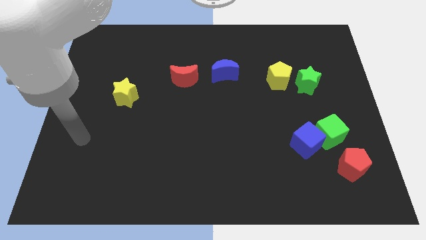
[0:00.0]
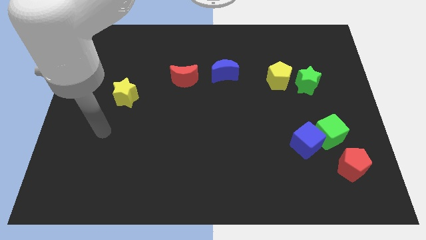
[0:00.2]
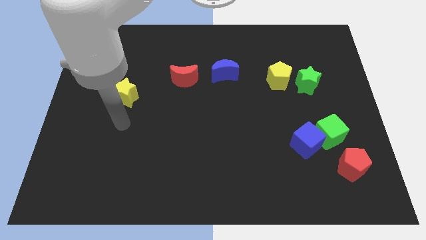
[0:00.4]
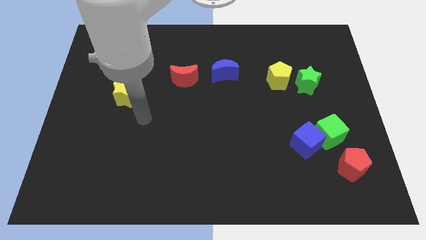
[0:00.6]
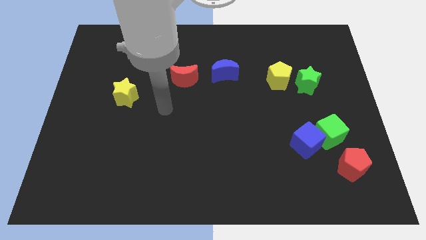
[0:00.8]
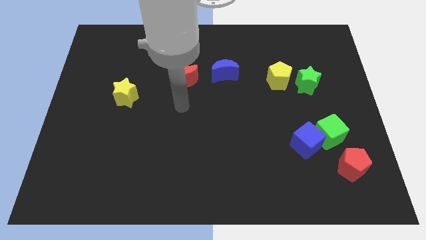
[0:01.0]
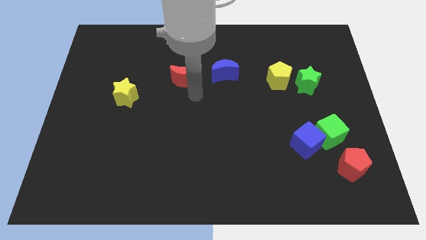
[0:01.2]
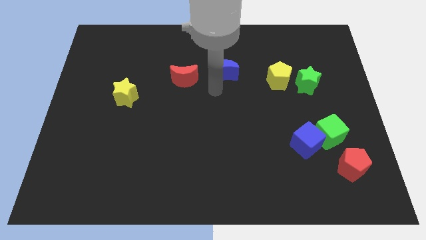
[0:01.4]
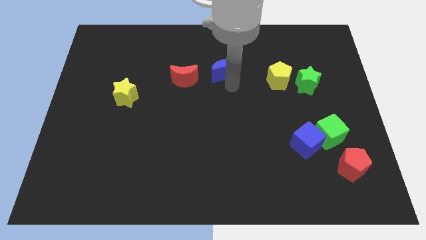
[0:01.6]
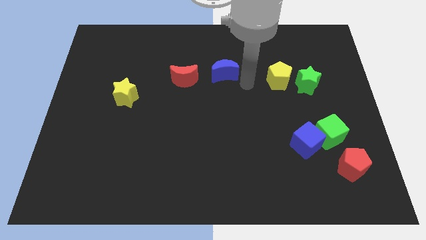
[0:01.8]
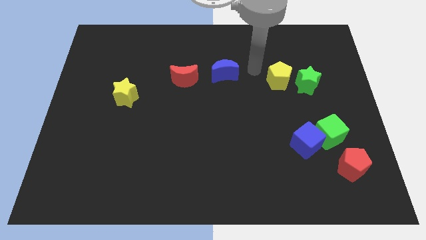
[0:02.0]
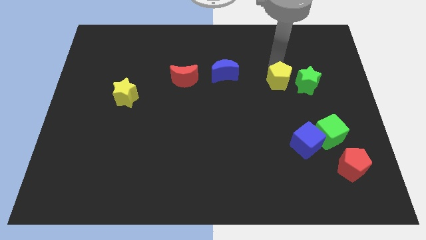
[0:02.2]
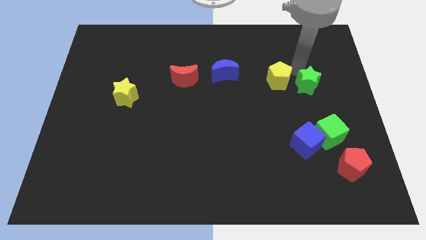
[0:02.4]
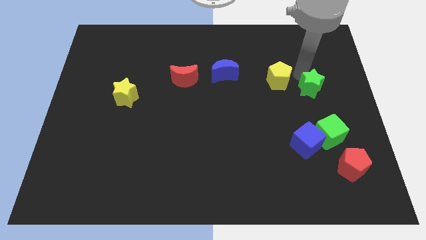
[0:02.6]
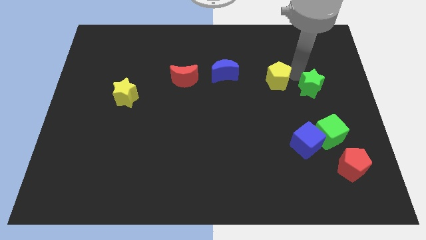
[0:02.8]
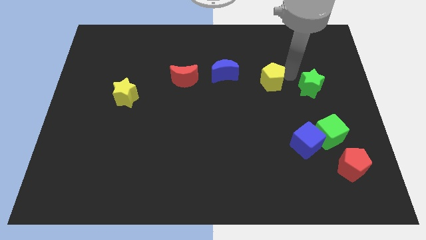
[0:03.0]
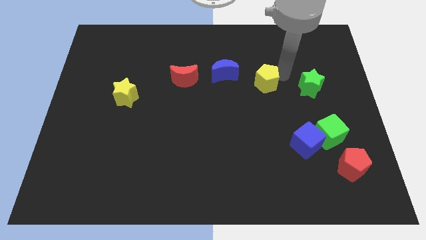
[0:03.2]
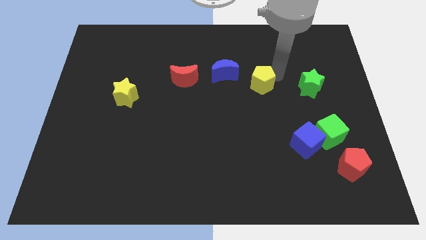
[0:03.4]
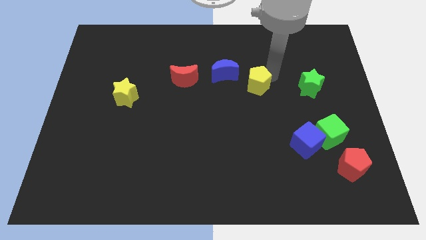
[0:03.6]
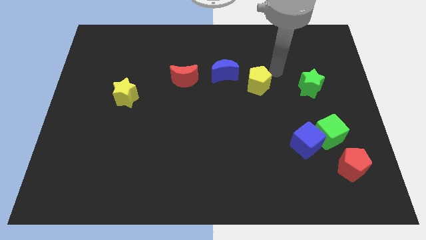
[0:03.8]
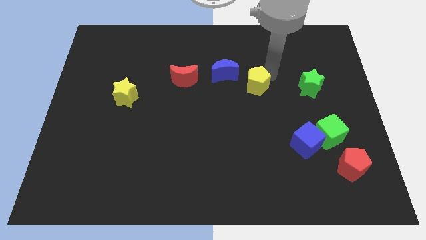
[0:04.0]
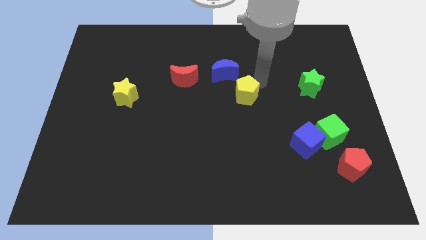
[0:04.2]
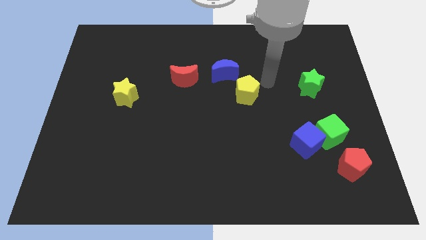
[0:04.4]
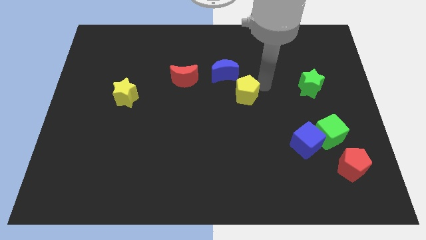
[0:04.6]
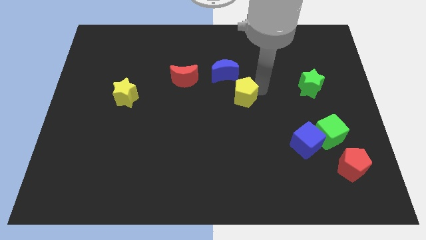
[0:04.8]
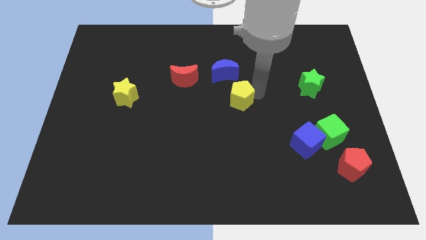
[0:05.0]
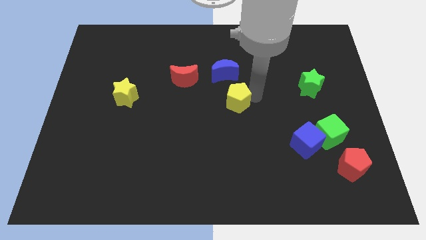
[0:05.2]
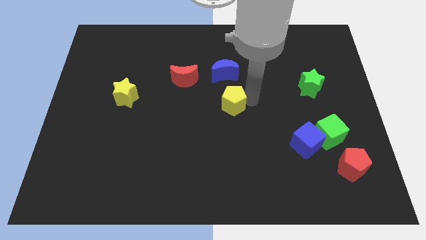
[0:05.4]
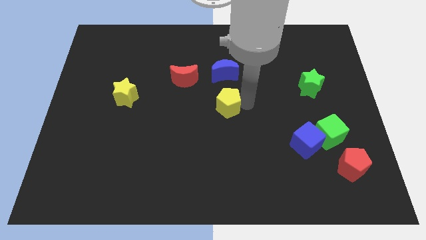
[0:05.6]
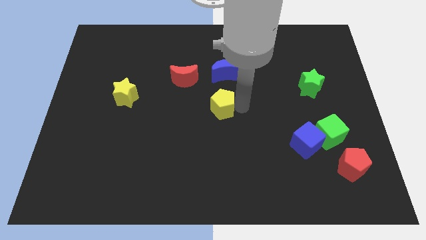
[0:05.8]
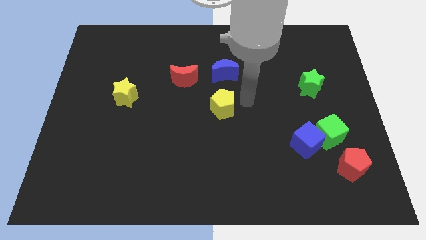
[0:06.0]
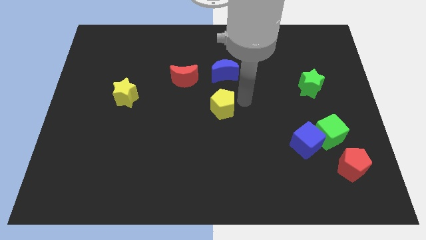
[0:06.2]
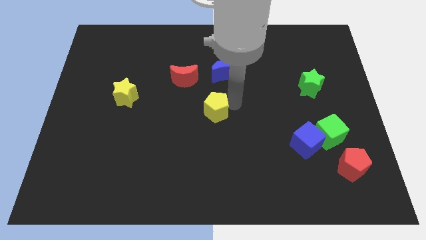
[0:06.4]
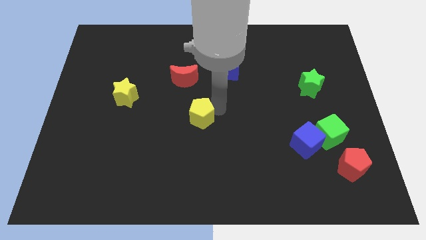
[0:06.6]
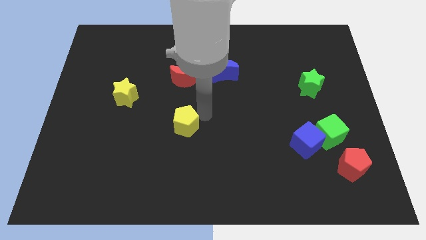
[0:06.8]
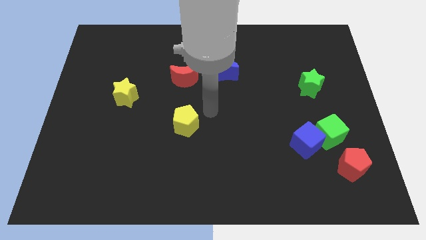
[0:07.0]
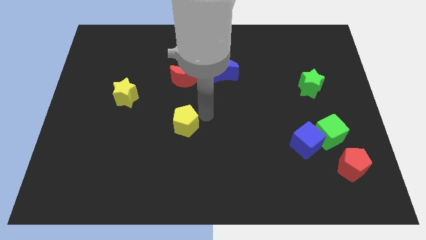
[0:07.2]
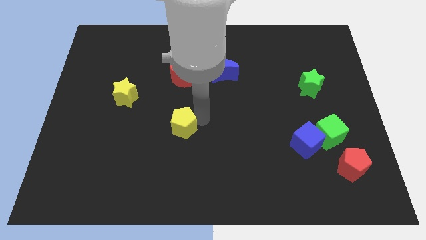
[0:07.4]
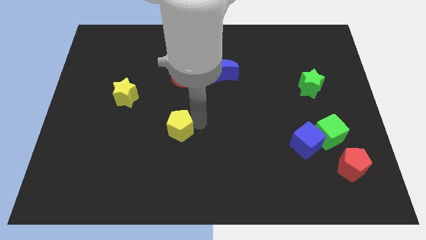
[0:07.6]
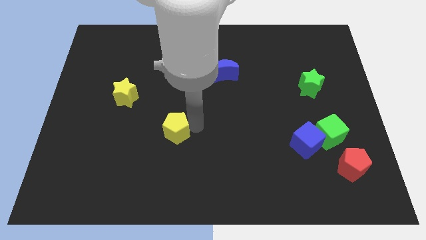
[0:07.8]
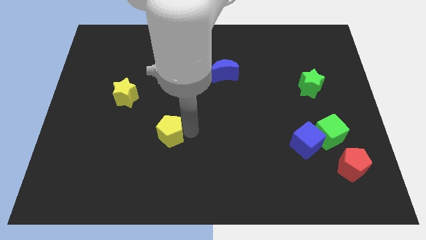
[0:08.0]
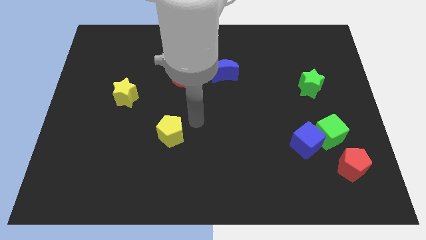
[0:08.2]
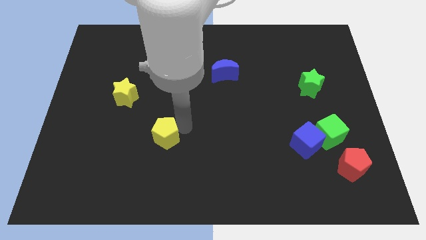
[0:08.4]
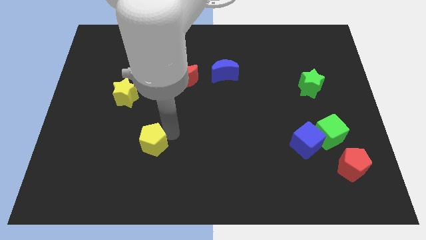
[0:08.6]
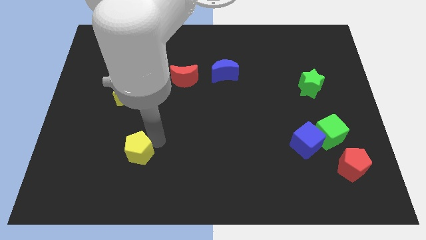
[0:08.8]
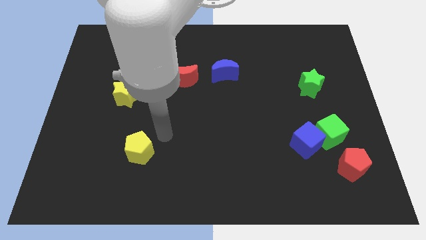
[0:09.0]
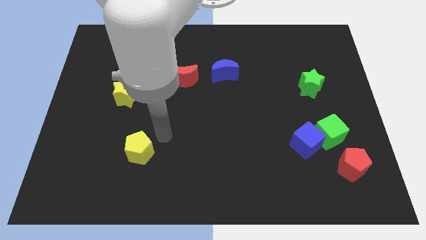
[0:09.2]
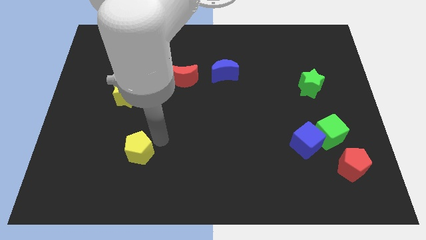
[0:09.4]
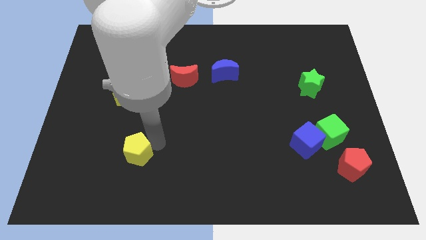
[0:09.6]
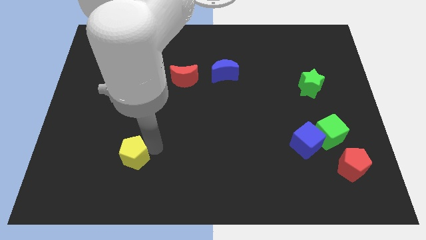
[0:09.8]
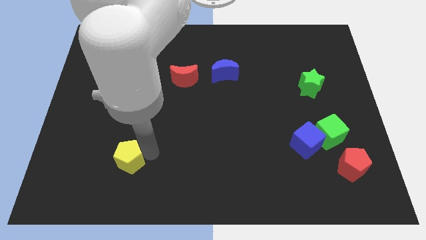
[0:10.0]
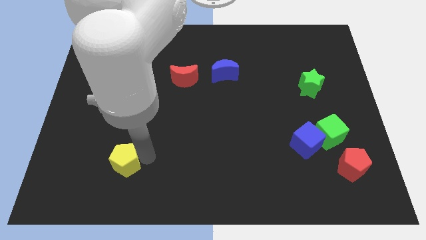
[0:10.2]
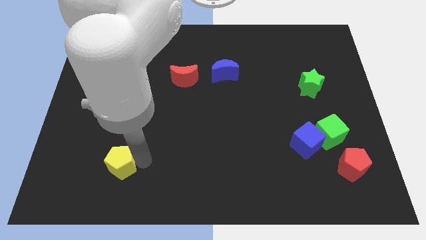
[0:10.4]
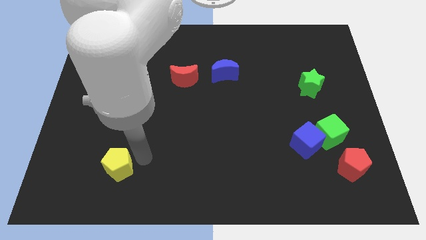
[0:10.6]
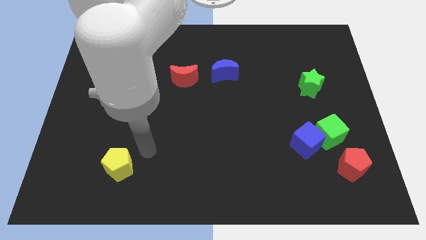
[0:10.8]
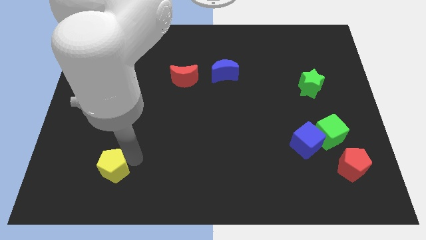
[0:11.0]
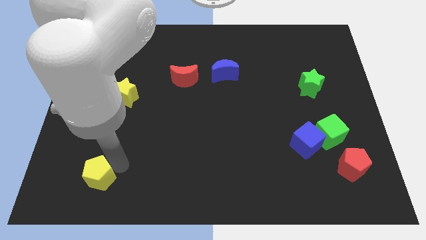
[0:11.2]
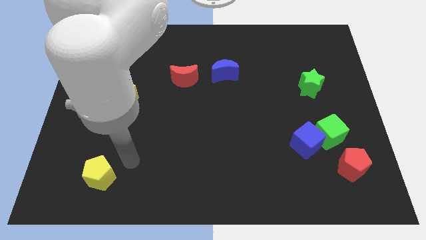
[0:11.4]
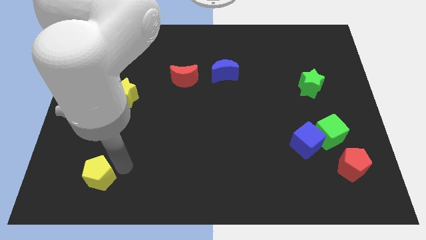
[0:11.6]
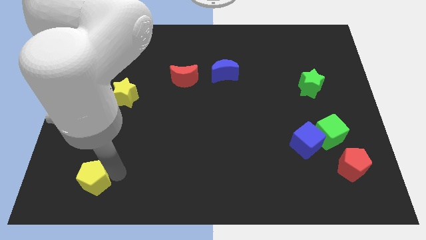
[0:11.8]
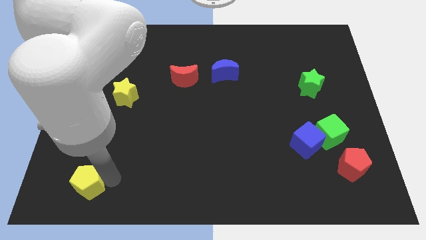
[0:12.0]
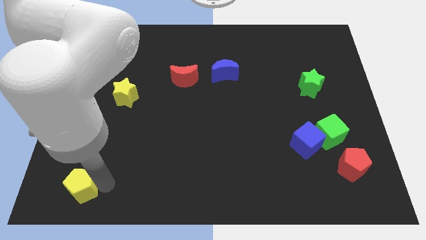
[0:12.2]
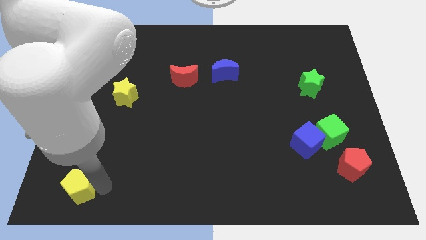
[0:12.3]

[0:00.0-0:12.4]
slide the yellow pentagon to the lower left corner

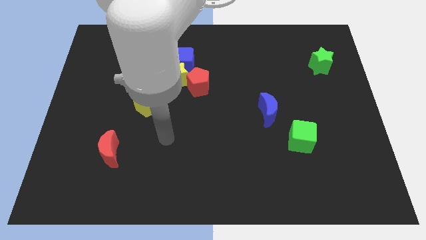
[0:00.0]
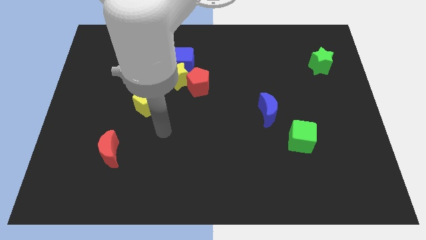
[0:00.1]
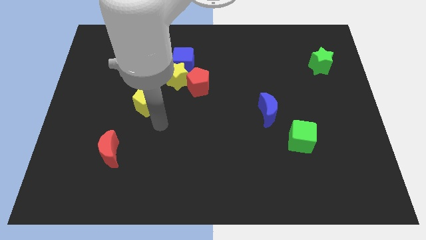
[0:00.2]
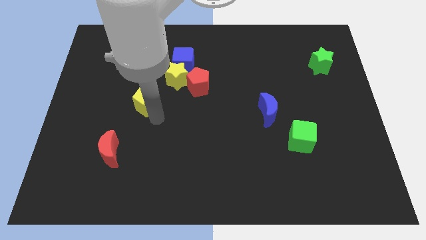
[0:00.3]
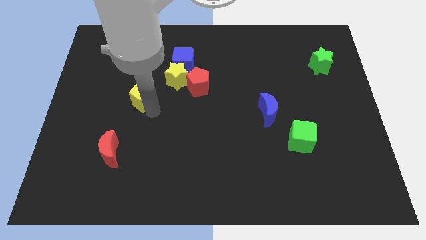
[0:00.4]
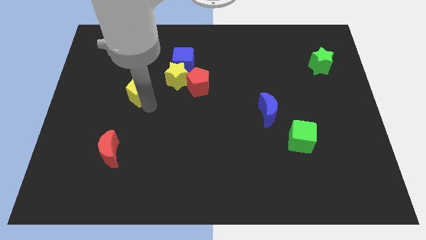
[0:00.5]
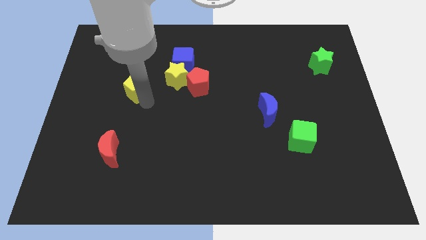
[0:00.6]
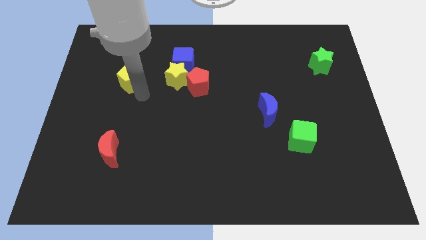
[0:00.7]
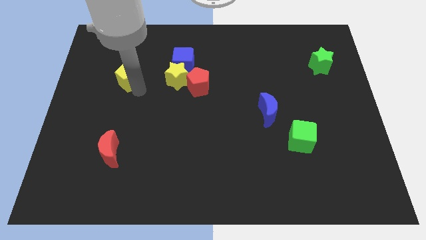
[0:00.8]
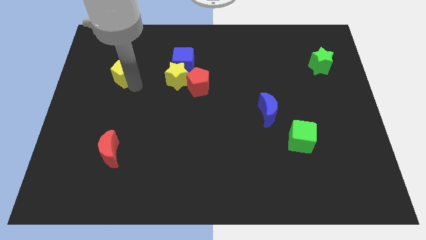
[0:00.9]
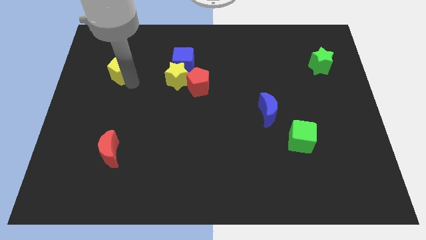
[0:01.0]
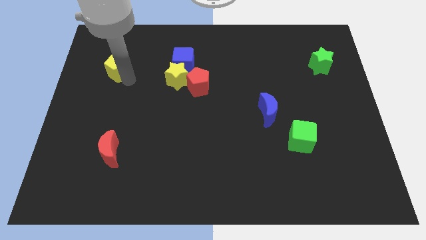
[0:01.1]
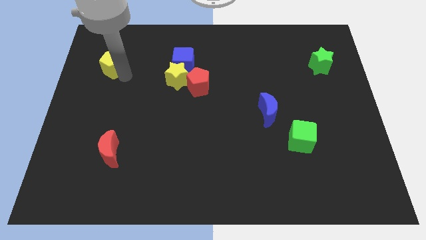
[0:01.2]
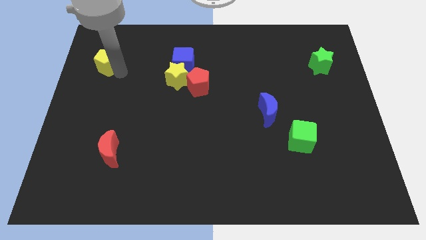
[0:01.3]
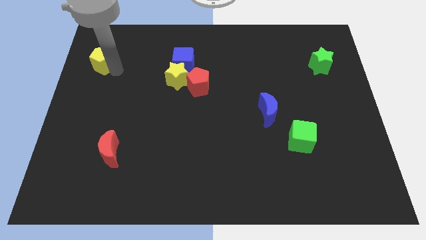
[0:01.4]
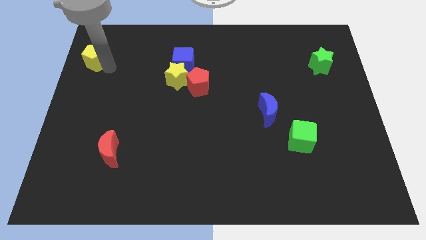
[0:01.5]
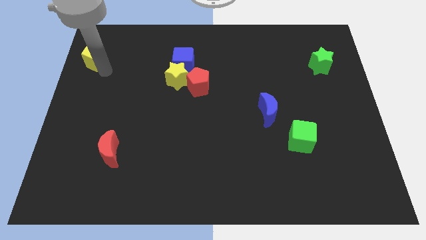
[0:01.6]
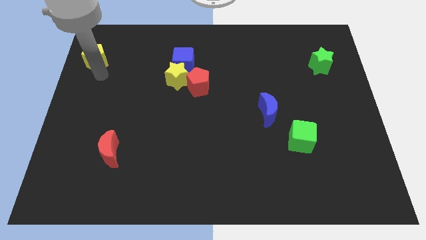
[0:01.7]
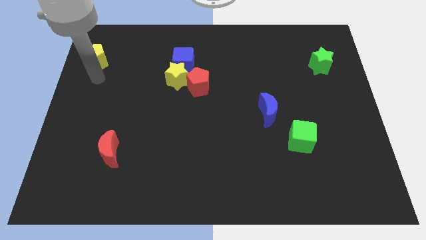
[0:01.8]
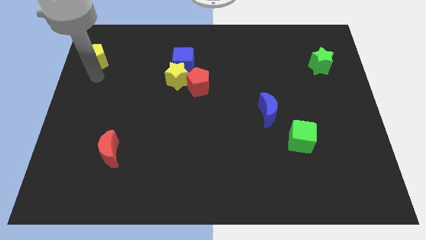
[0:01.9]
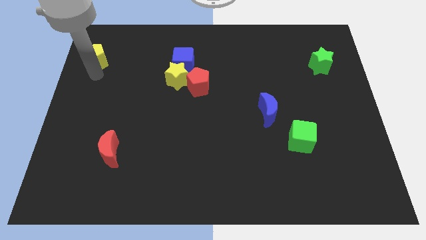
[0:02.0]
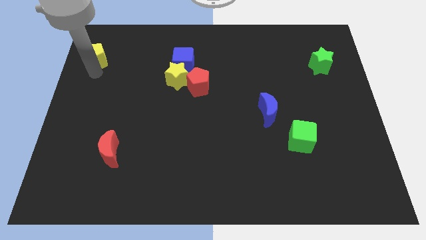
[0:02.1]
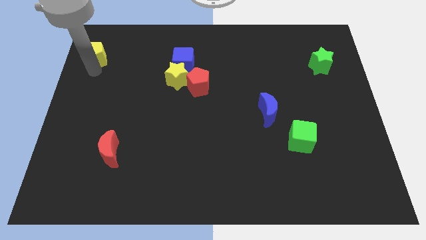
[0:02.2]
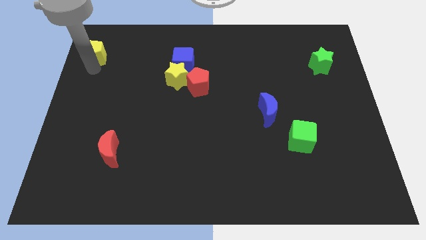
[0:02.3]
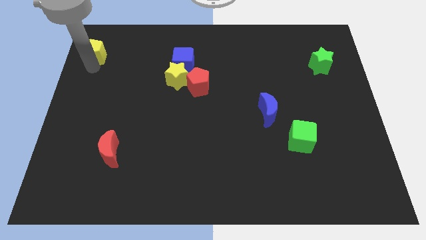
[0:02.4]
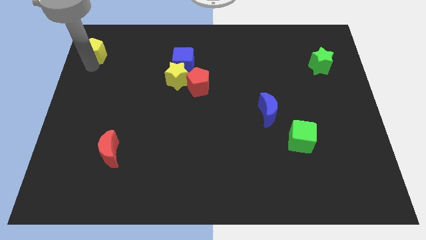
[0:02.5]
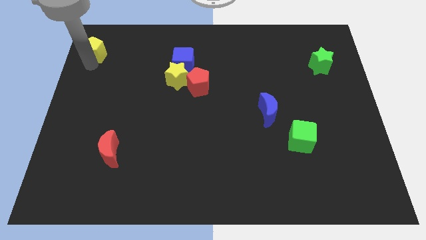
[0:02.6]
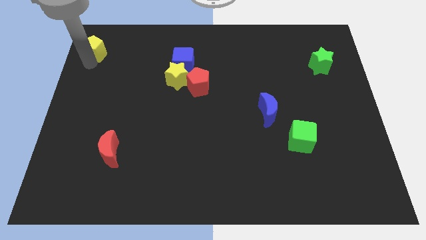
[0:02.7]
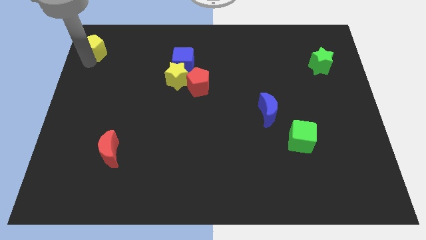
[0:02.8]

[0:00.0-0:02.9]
move the yellow pentagon to the top left
